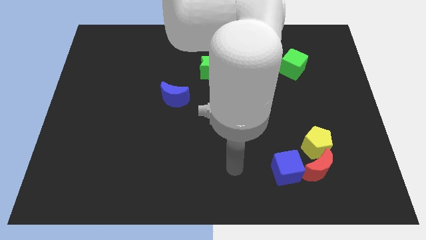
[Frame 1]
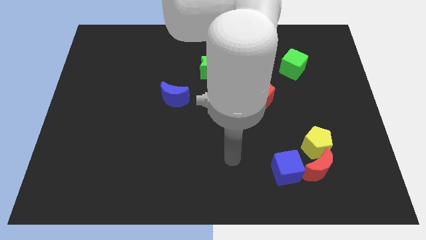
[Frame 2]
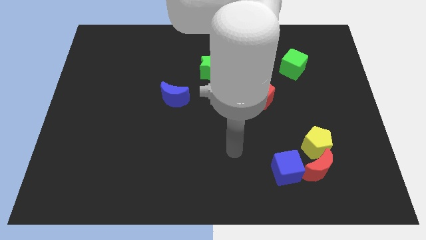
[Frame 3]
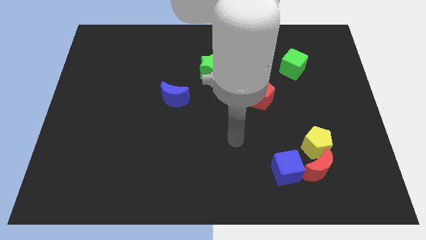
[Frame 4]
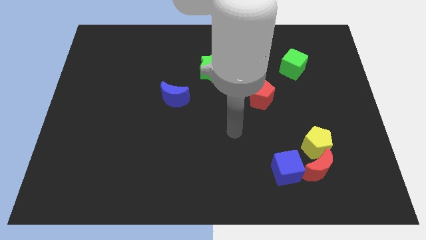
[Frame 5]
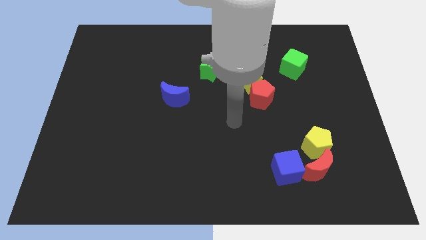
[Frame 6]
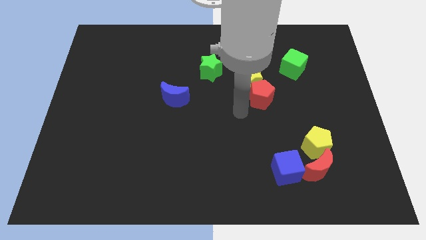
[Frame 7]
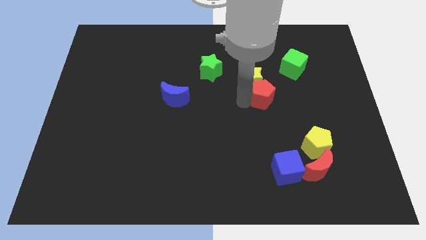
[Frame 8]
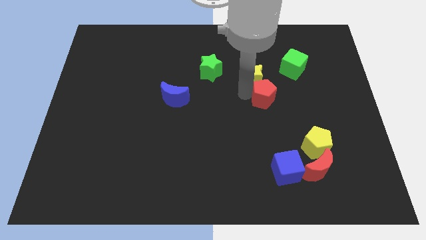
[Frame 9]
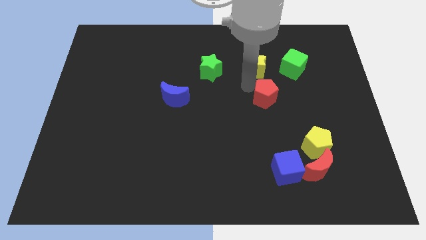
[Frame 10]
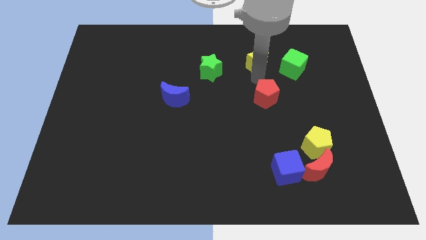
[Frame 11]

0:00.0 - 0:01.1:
separate the red pentagon from the yellow star

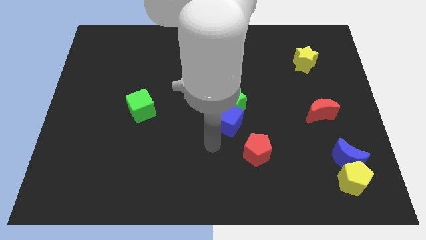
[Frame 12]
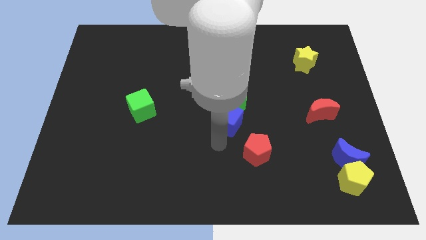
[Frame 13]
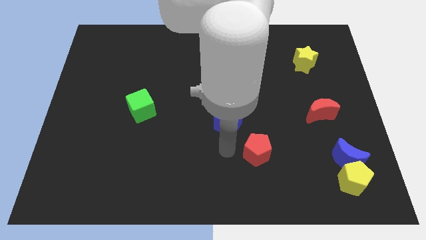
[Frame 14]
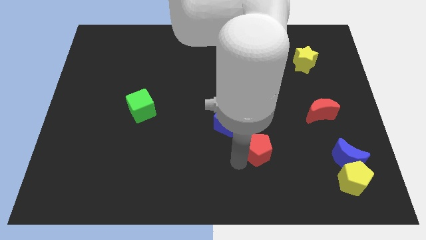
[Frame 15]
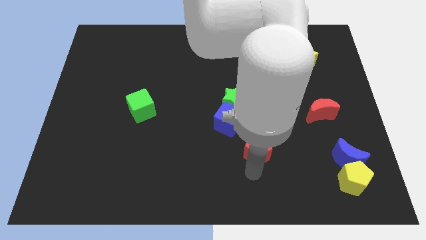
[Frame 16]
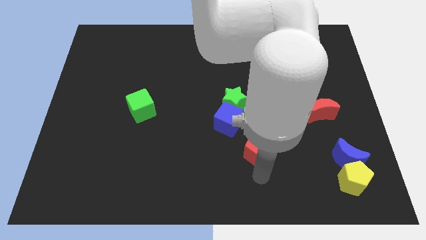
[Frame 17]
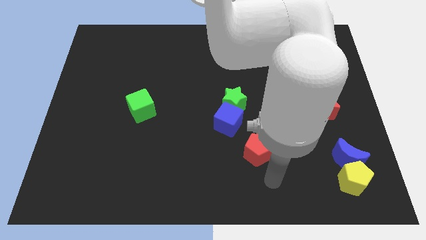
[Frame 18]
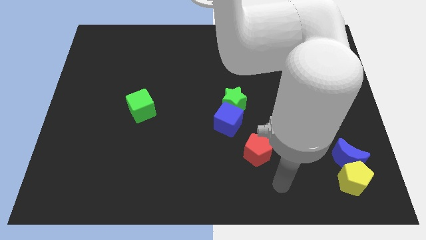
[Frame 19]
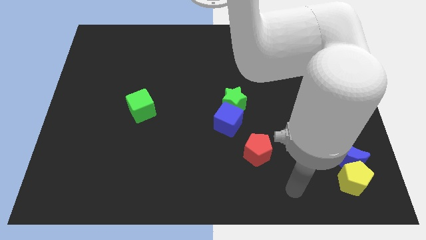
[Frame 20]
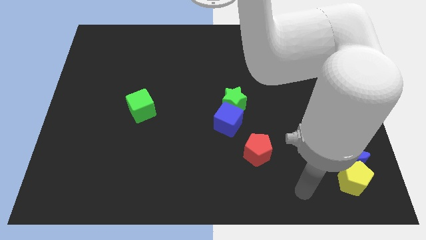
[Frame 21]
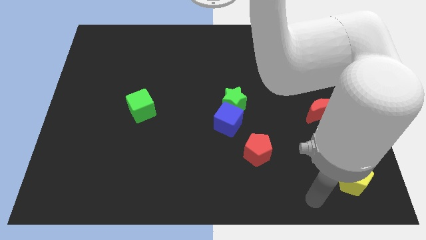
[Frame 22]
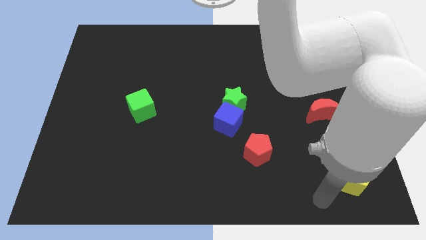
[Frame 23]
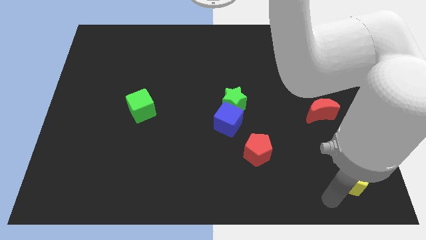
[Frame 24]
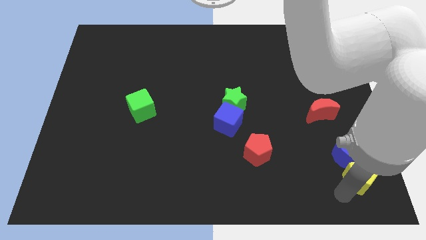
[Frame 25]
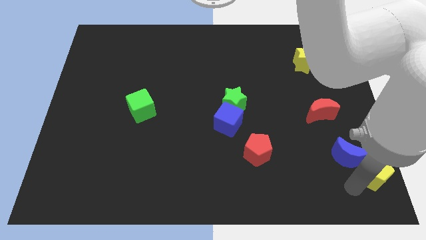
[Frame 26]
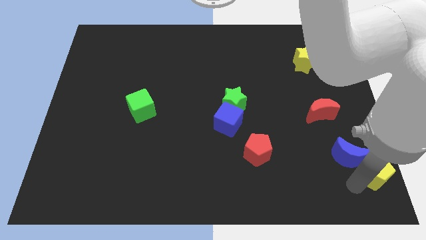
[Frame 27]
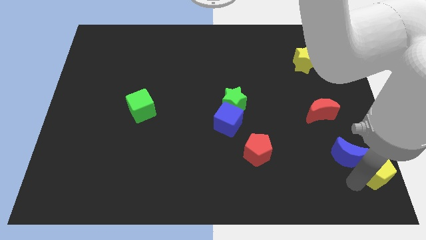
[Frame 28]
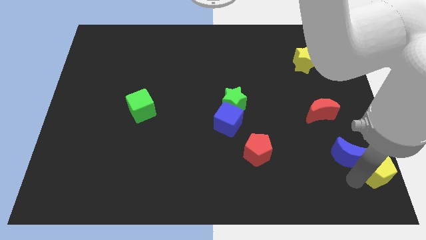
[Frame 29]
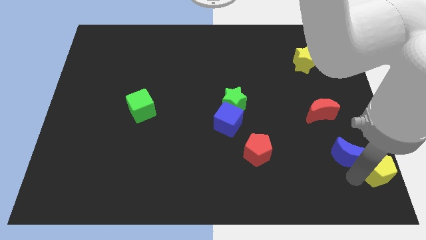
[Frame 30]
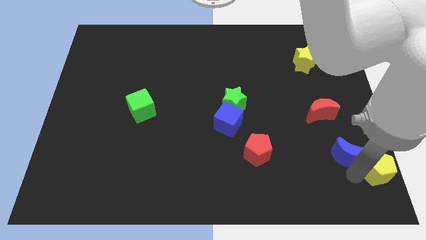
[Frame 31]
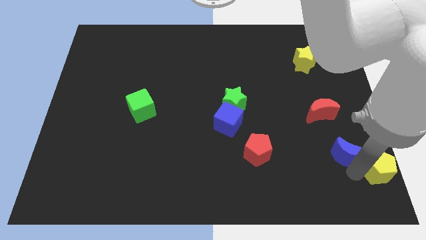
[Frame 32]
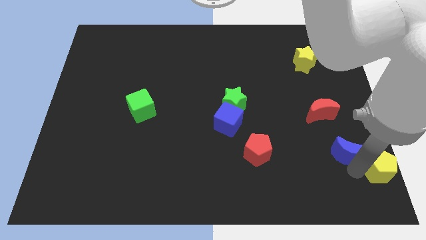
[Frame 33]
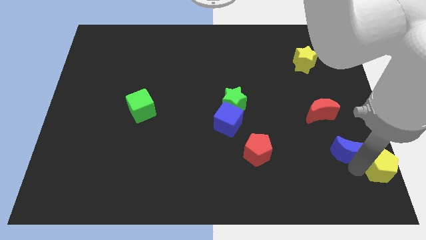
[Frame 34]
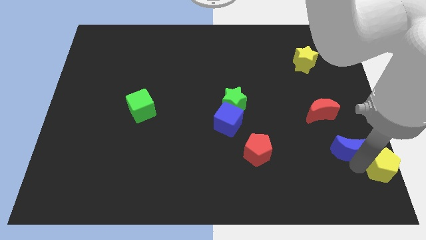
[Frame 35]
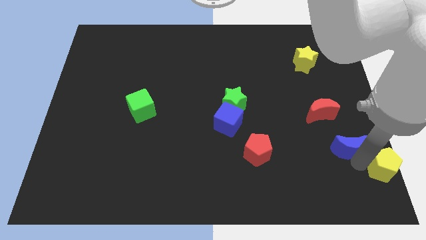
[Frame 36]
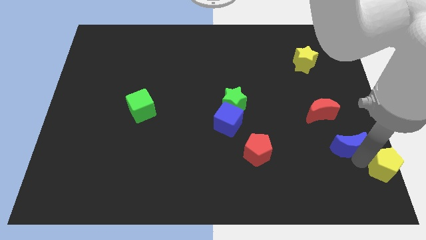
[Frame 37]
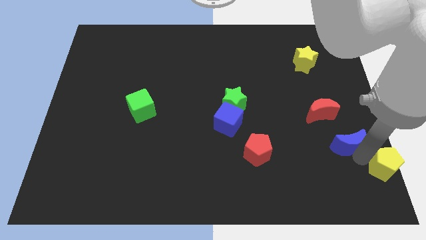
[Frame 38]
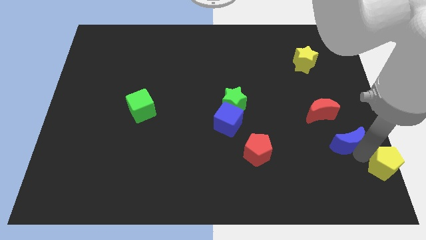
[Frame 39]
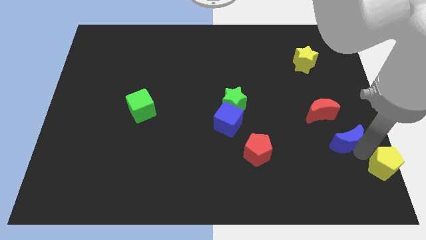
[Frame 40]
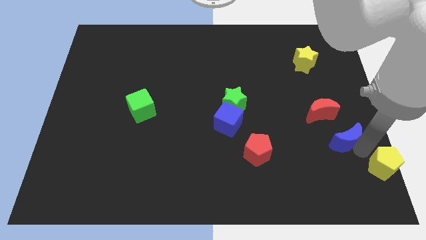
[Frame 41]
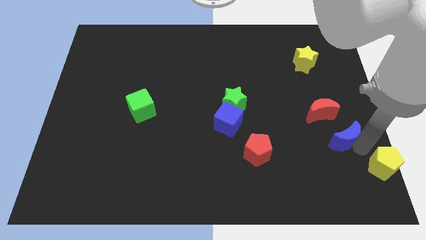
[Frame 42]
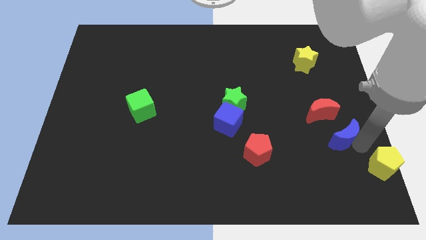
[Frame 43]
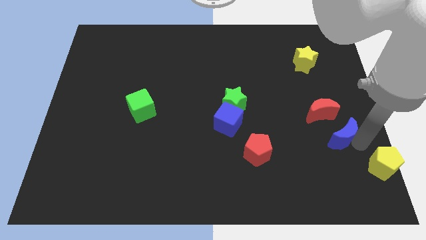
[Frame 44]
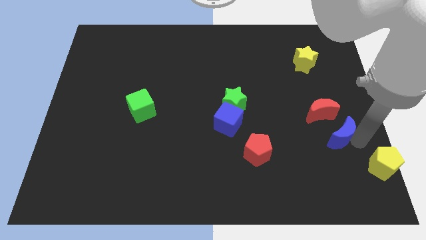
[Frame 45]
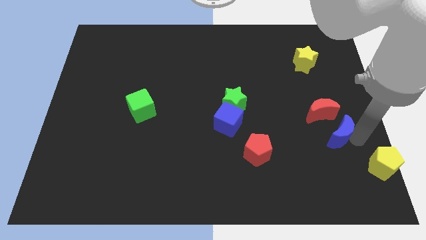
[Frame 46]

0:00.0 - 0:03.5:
move the blue moon away from the yellow pentagon

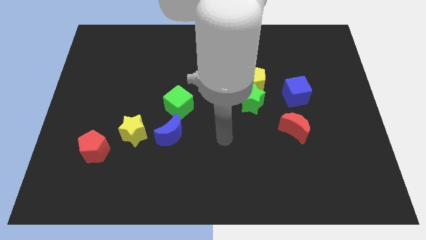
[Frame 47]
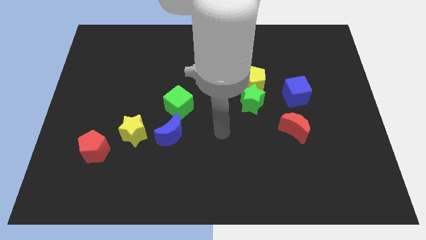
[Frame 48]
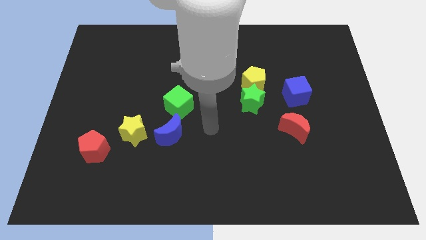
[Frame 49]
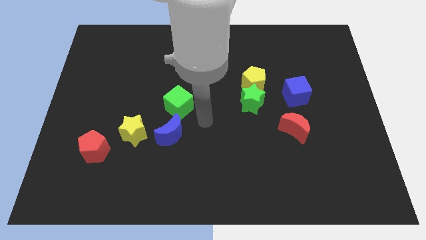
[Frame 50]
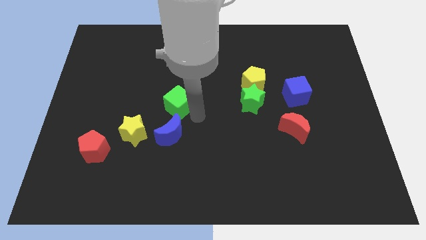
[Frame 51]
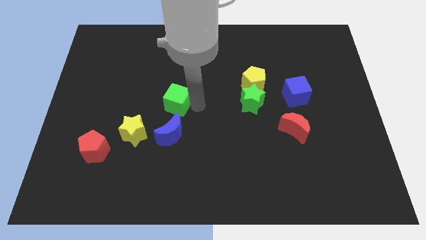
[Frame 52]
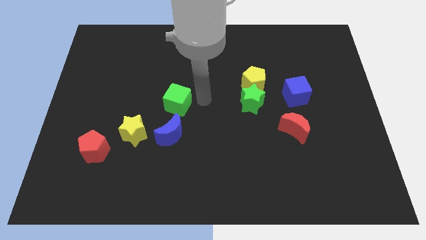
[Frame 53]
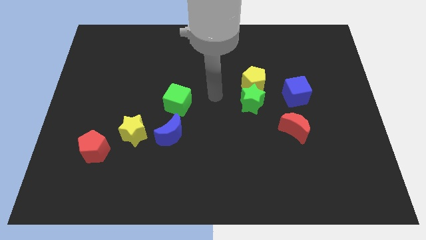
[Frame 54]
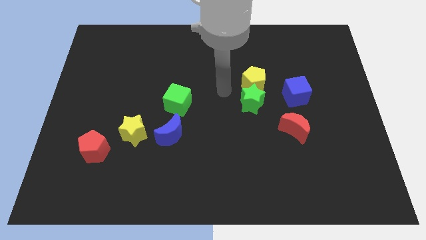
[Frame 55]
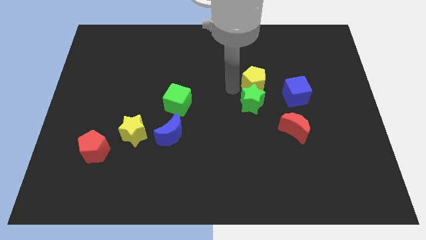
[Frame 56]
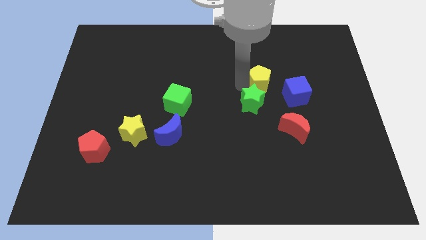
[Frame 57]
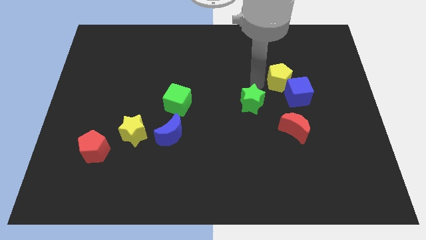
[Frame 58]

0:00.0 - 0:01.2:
separate the green star from the yellow pentagon

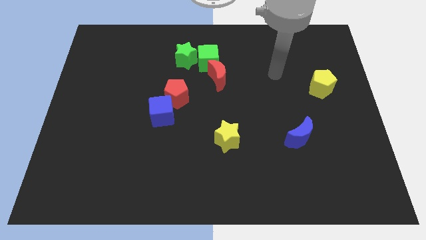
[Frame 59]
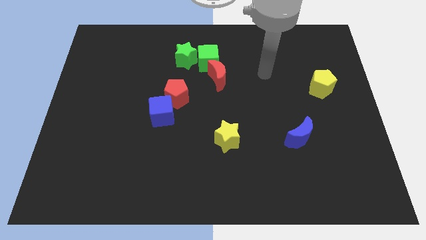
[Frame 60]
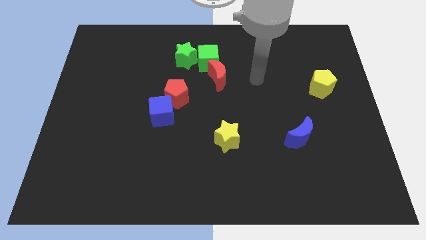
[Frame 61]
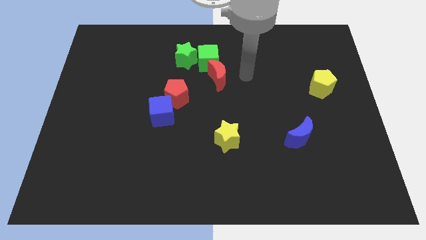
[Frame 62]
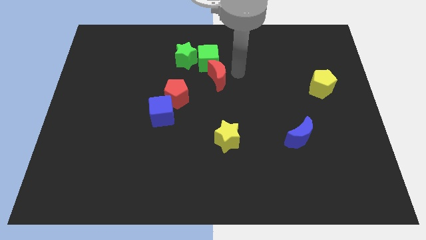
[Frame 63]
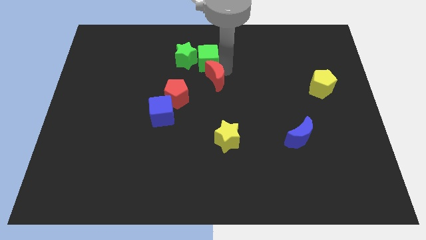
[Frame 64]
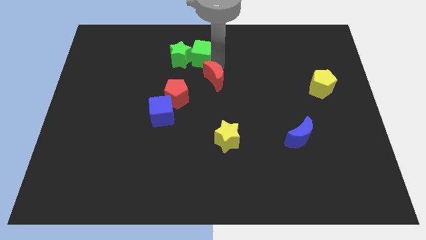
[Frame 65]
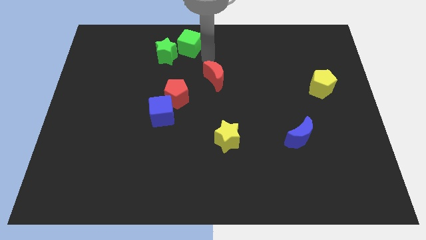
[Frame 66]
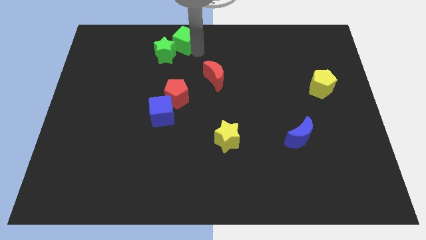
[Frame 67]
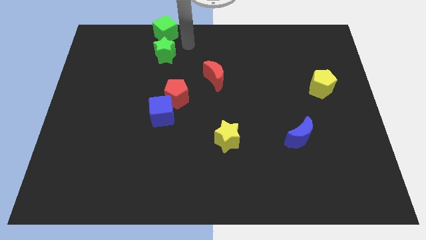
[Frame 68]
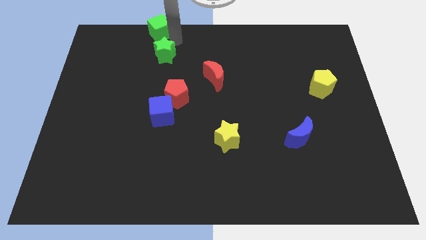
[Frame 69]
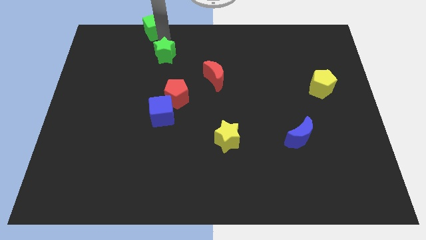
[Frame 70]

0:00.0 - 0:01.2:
move the green star away from the green cube

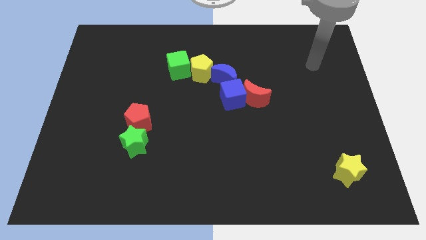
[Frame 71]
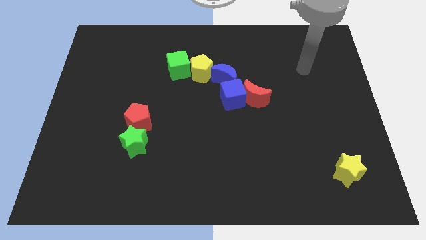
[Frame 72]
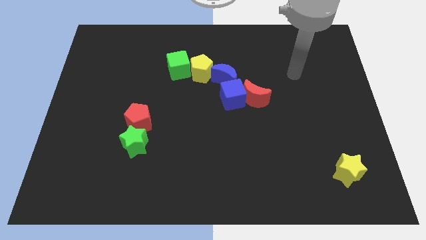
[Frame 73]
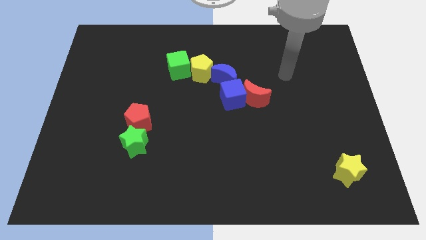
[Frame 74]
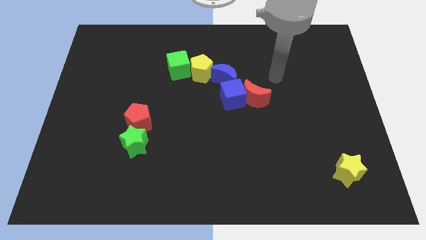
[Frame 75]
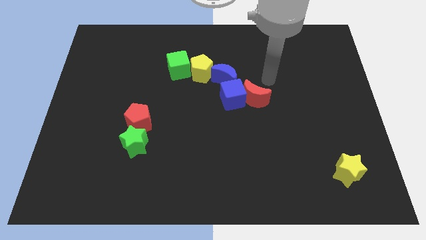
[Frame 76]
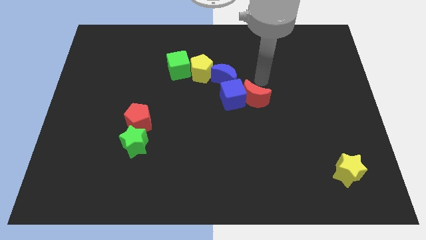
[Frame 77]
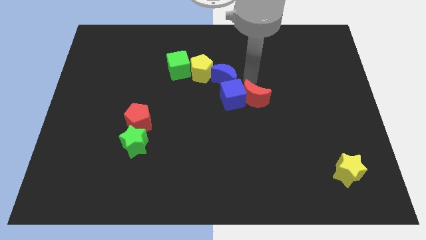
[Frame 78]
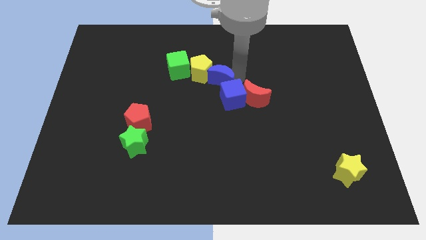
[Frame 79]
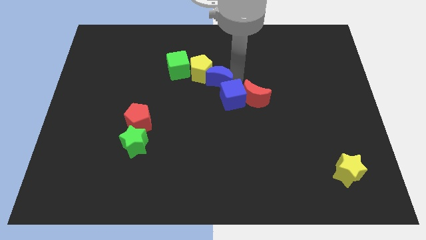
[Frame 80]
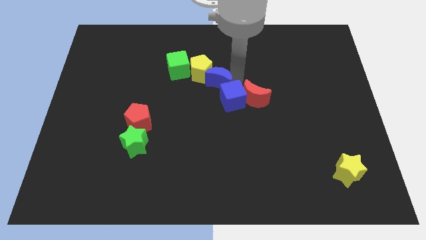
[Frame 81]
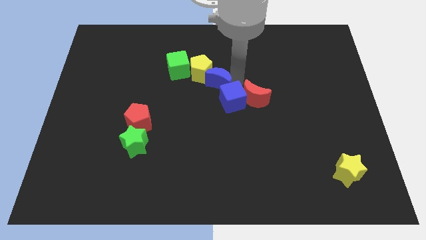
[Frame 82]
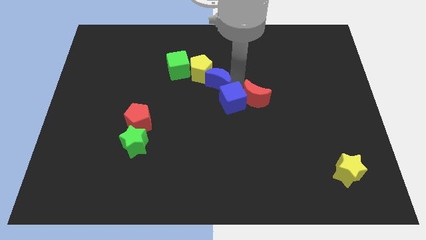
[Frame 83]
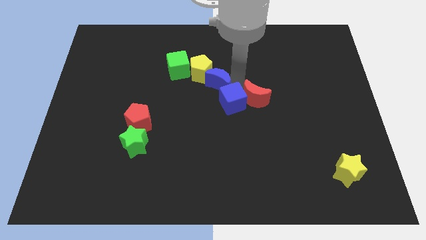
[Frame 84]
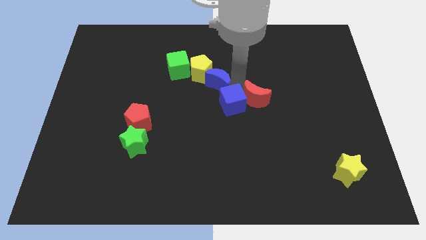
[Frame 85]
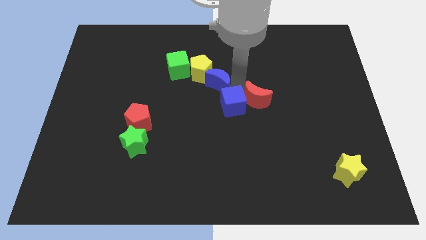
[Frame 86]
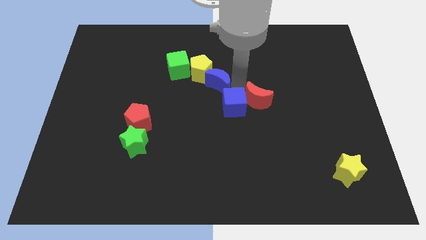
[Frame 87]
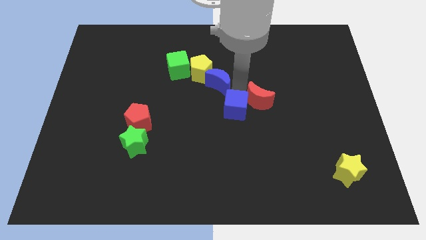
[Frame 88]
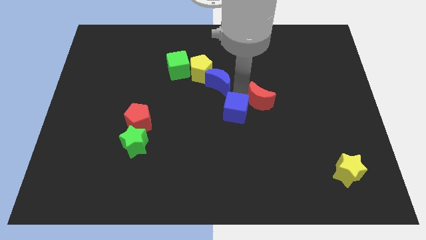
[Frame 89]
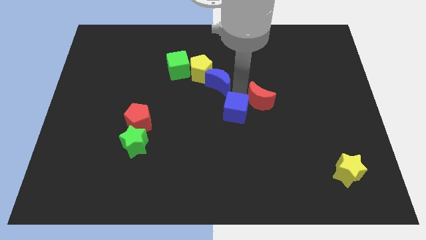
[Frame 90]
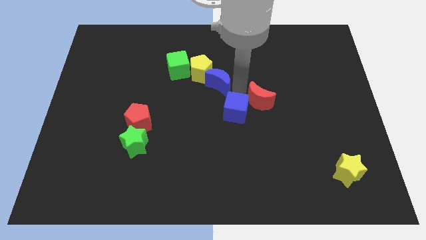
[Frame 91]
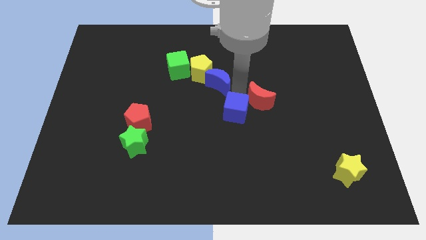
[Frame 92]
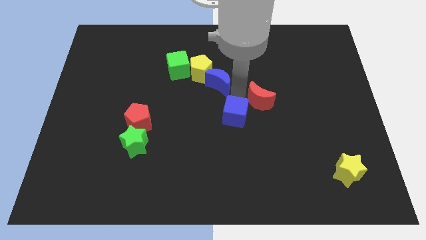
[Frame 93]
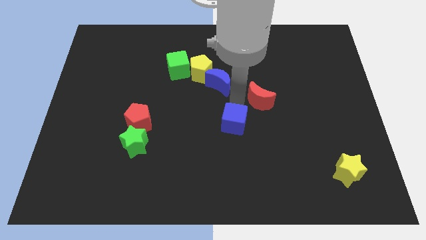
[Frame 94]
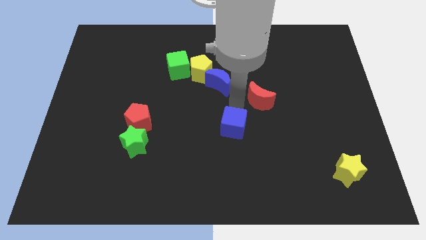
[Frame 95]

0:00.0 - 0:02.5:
move the blue cube away from the red moon and blue moon
